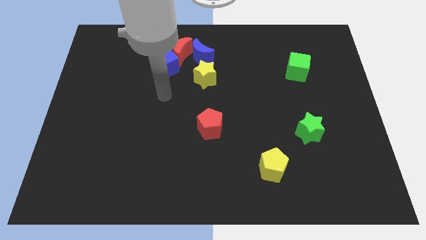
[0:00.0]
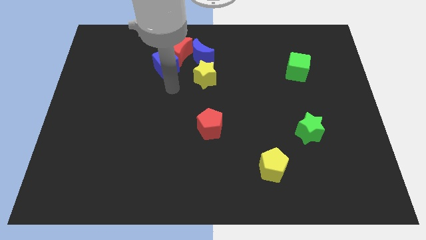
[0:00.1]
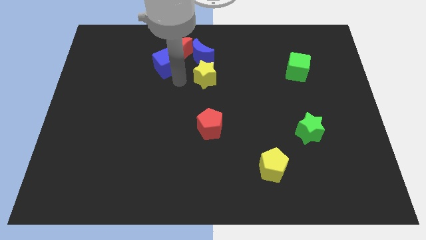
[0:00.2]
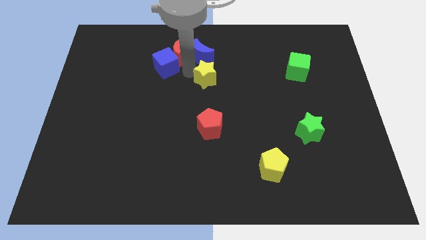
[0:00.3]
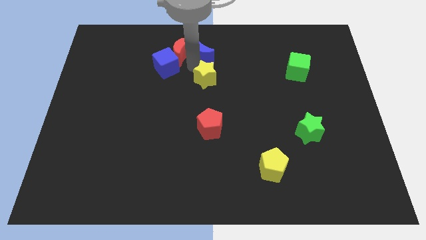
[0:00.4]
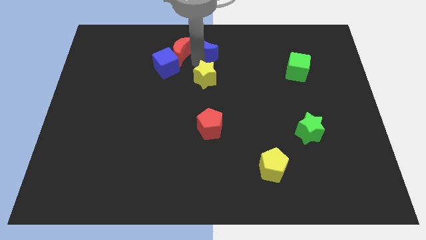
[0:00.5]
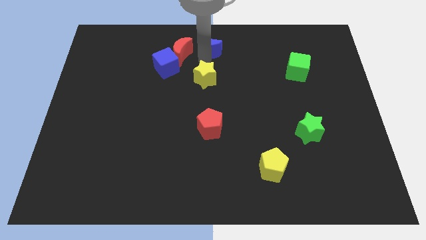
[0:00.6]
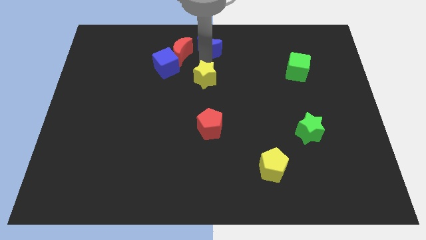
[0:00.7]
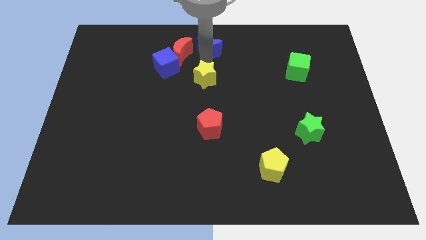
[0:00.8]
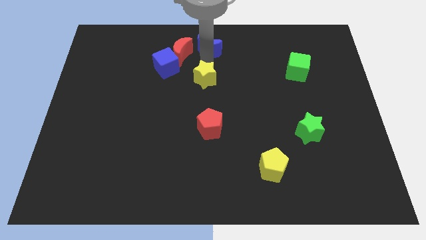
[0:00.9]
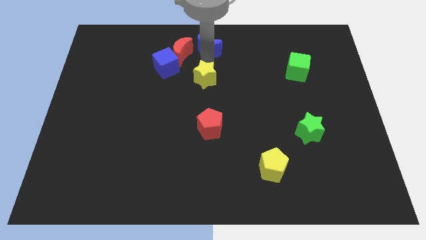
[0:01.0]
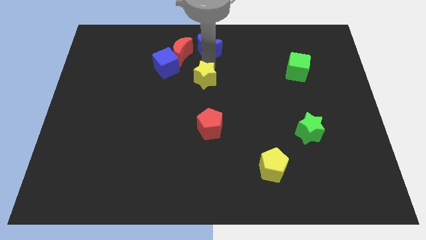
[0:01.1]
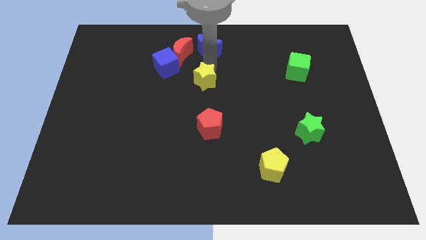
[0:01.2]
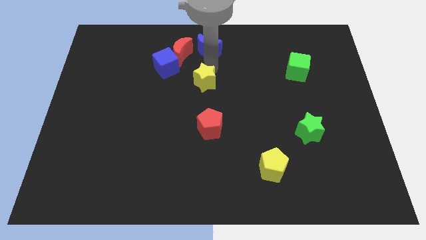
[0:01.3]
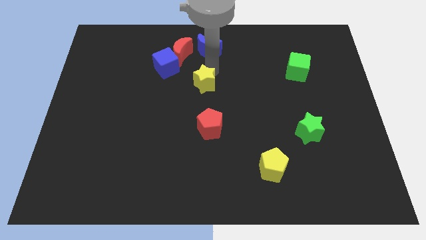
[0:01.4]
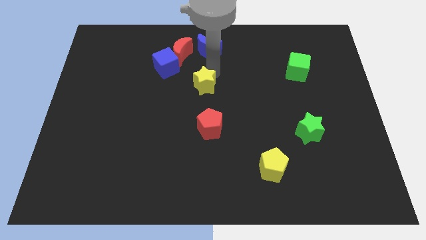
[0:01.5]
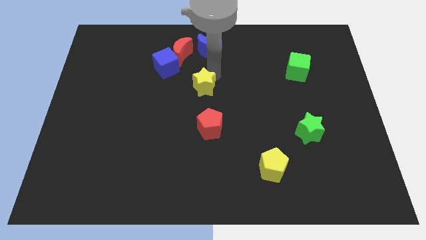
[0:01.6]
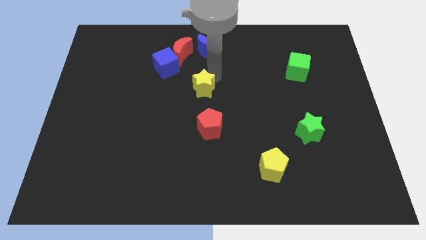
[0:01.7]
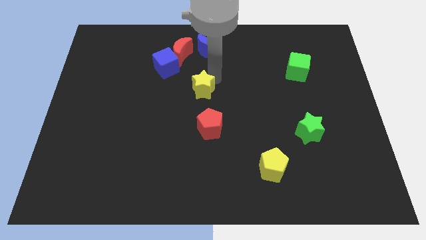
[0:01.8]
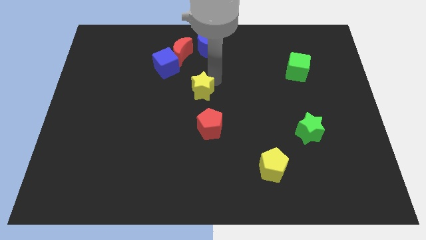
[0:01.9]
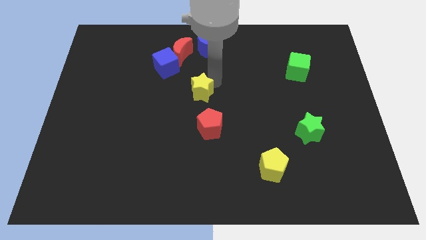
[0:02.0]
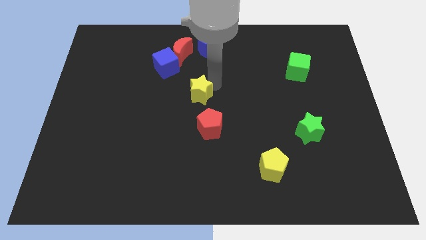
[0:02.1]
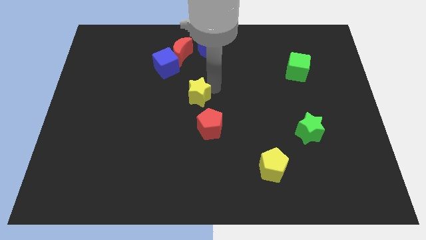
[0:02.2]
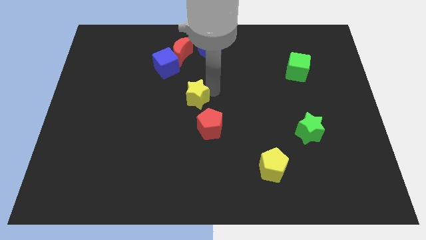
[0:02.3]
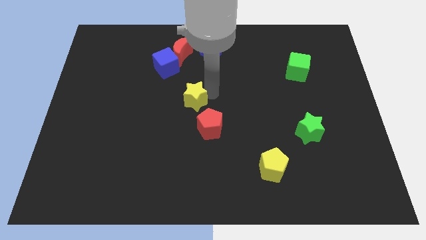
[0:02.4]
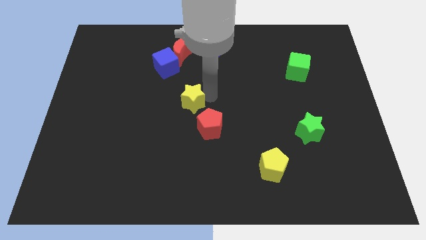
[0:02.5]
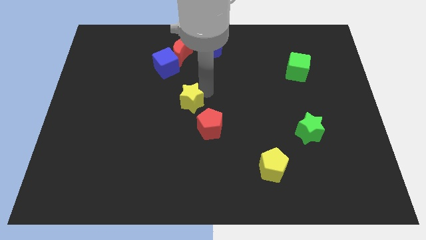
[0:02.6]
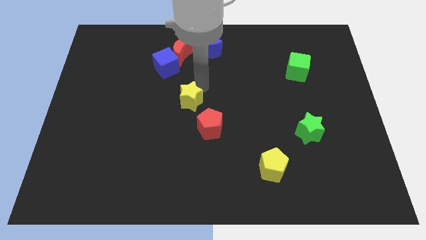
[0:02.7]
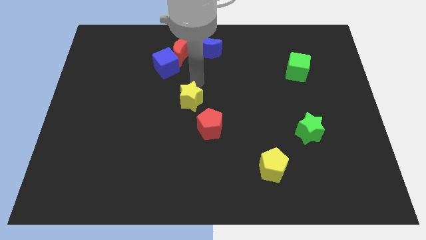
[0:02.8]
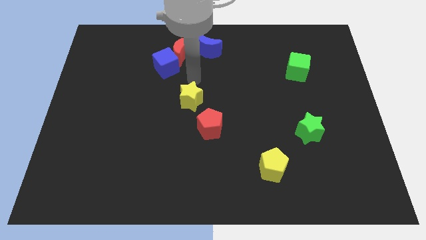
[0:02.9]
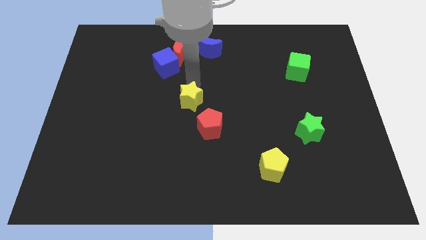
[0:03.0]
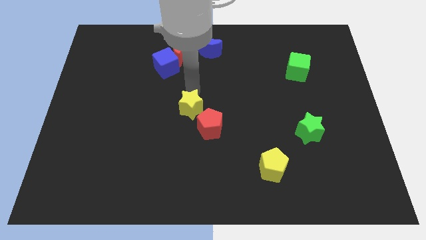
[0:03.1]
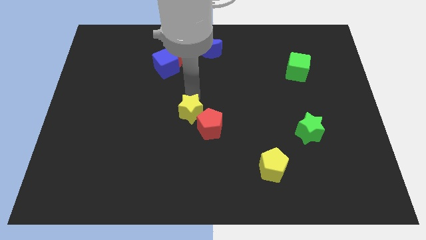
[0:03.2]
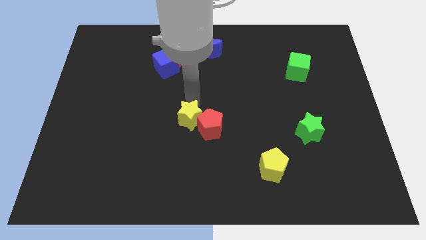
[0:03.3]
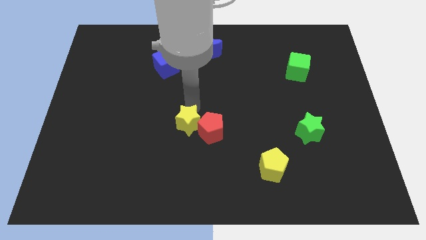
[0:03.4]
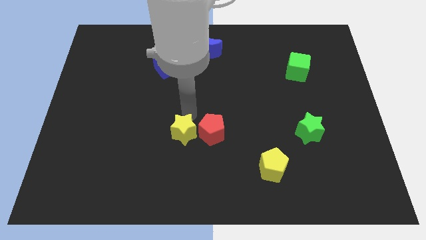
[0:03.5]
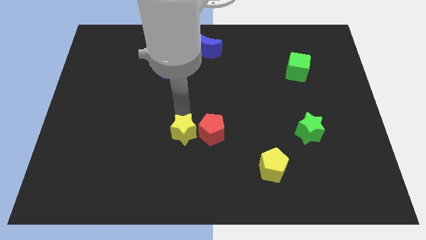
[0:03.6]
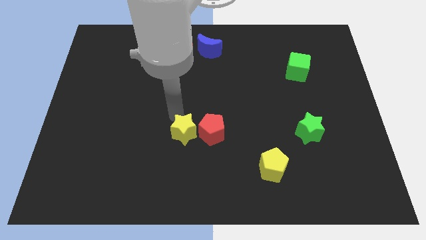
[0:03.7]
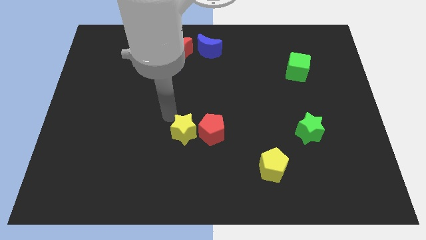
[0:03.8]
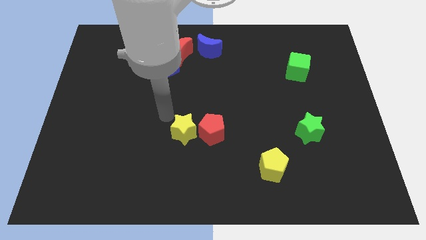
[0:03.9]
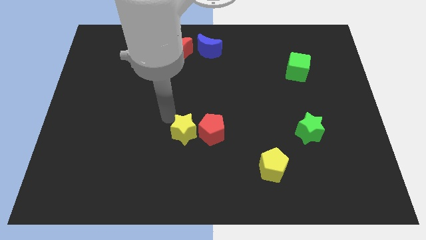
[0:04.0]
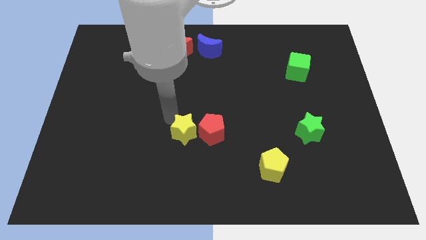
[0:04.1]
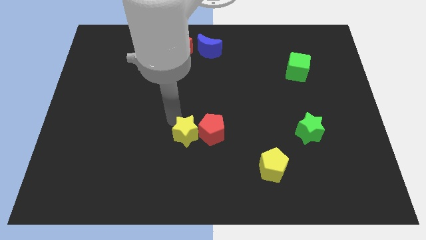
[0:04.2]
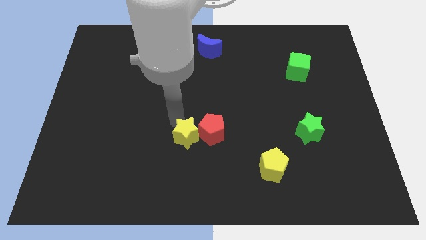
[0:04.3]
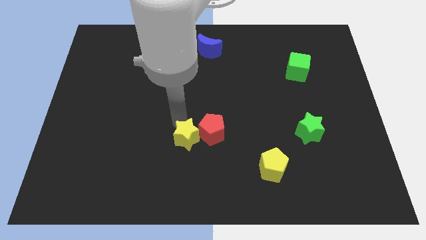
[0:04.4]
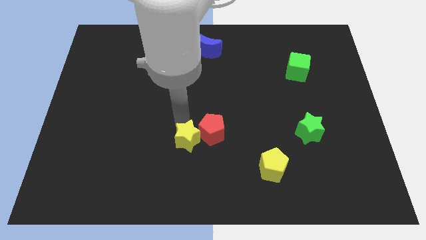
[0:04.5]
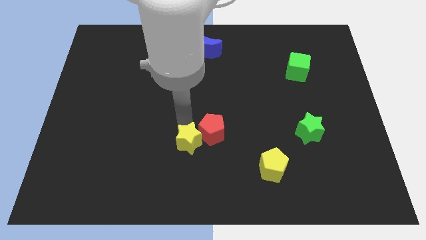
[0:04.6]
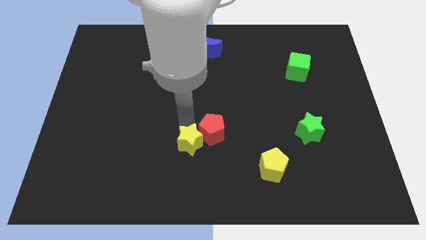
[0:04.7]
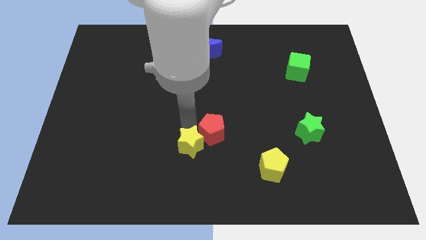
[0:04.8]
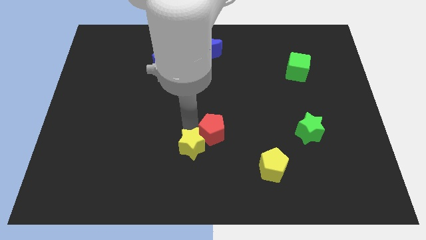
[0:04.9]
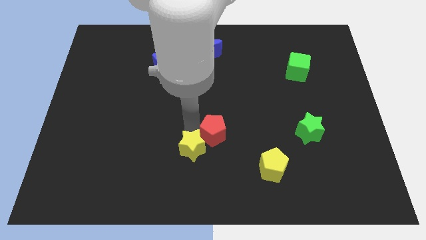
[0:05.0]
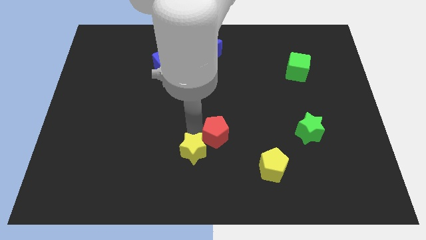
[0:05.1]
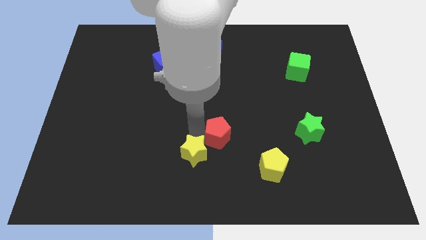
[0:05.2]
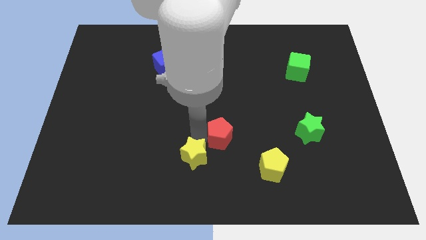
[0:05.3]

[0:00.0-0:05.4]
push the yellow star to the bottom
